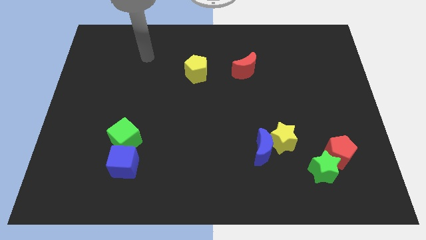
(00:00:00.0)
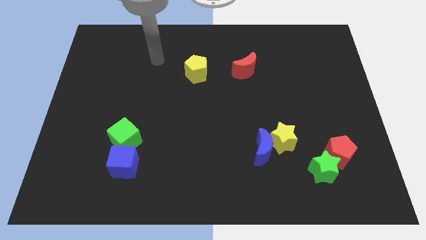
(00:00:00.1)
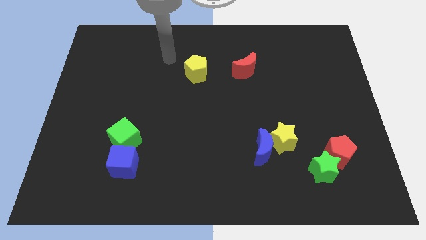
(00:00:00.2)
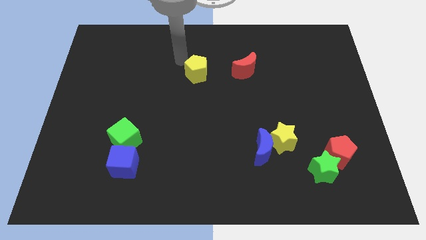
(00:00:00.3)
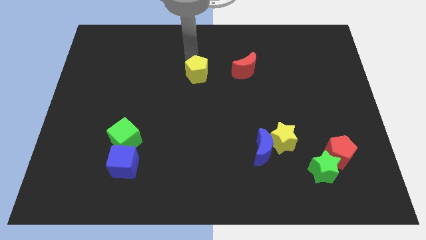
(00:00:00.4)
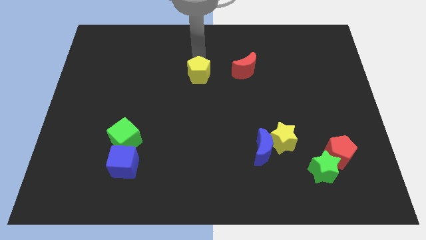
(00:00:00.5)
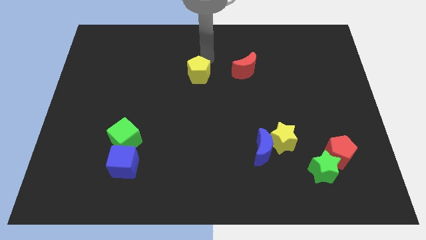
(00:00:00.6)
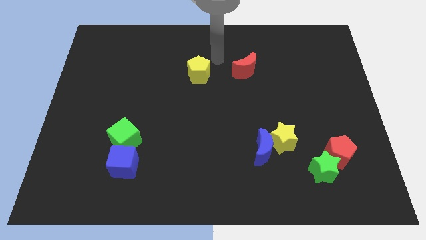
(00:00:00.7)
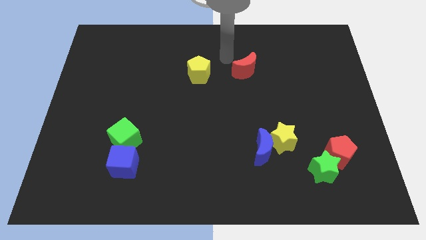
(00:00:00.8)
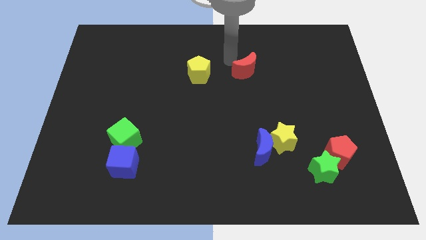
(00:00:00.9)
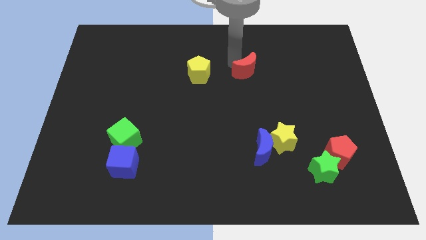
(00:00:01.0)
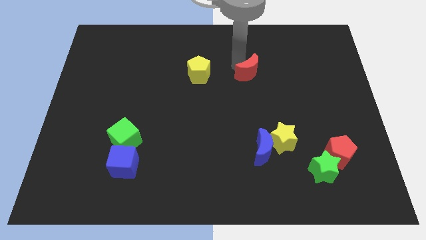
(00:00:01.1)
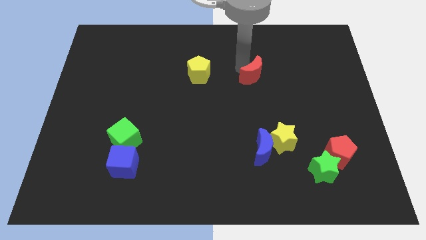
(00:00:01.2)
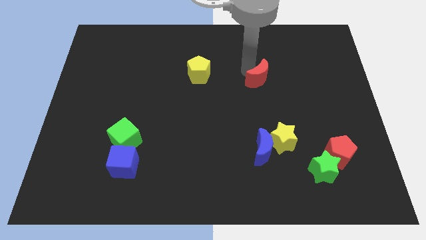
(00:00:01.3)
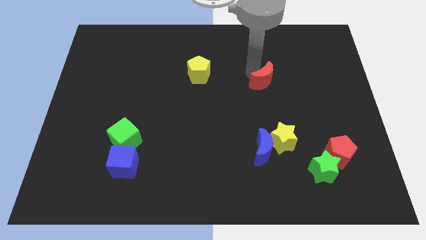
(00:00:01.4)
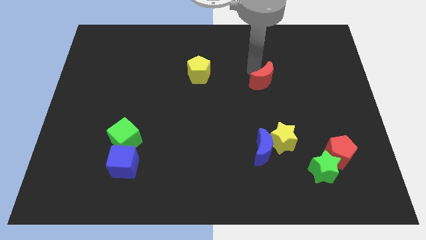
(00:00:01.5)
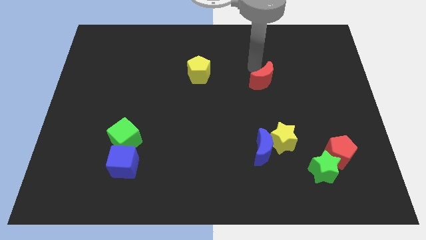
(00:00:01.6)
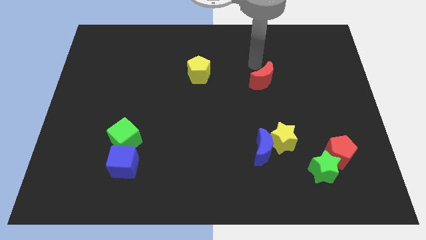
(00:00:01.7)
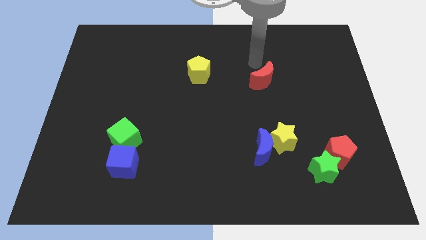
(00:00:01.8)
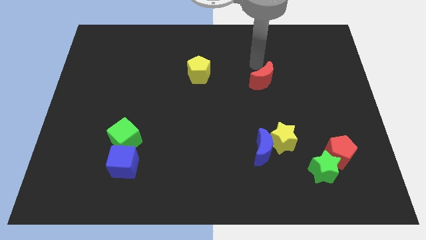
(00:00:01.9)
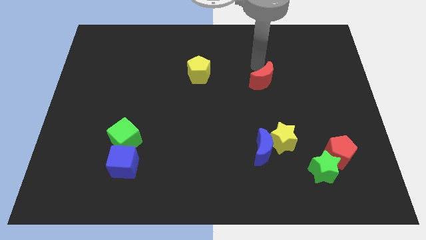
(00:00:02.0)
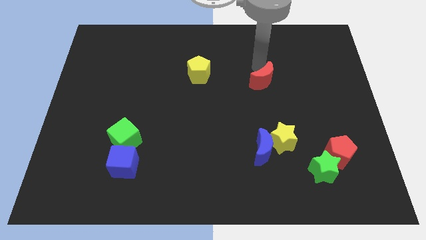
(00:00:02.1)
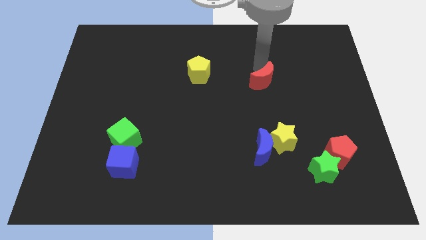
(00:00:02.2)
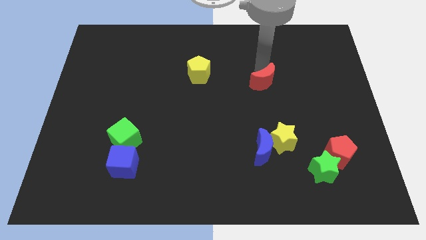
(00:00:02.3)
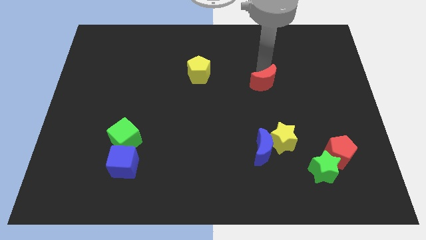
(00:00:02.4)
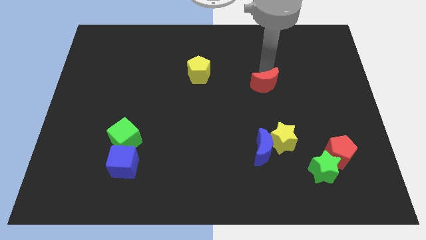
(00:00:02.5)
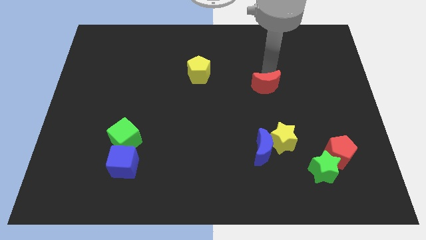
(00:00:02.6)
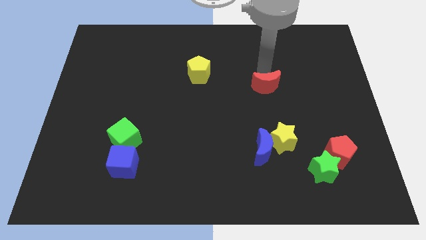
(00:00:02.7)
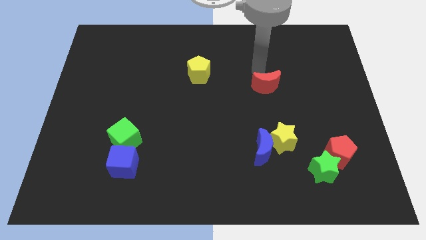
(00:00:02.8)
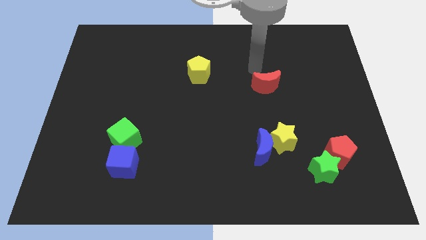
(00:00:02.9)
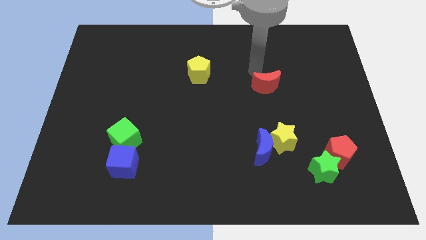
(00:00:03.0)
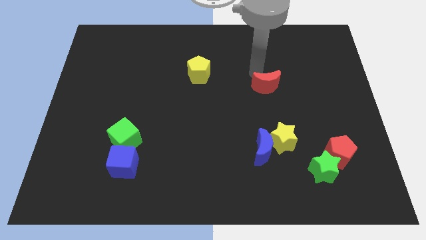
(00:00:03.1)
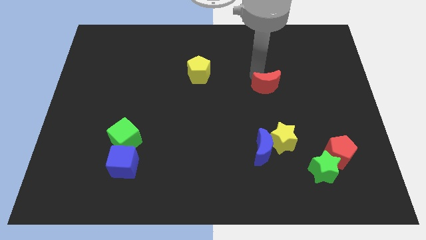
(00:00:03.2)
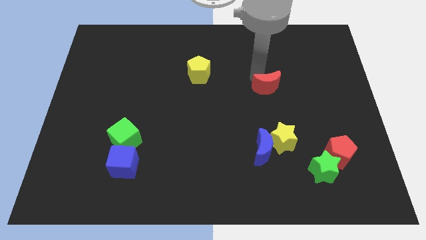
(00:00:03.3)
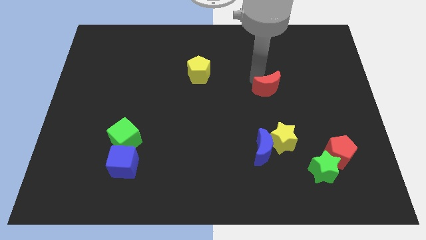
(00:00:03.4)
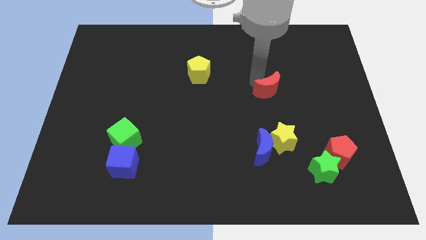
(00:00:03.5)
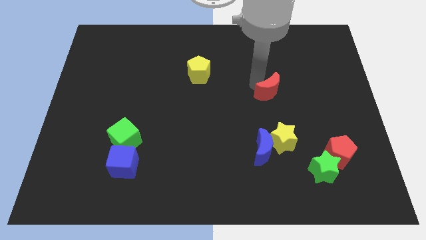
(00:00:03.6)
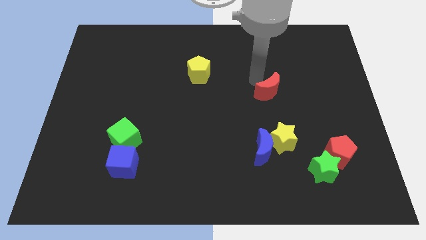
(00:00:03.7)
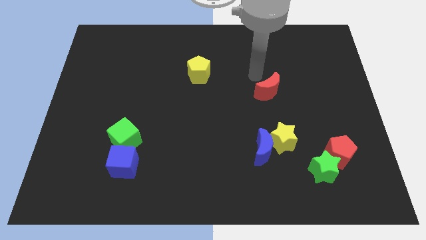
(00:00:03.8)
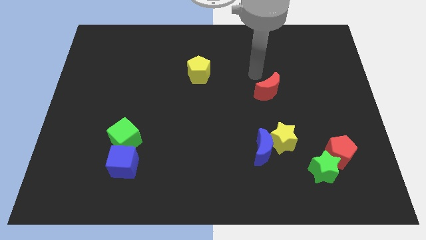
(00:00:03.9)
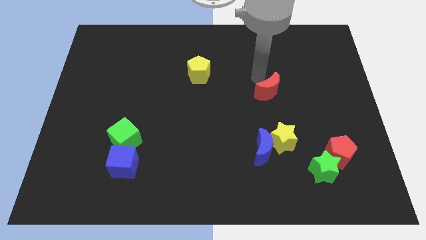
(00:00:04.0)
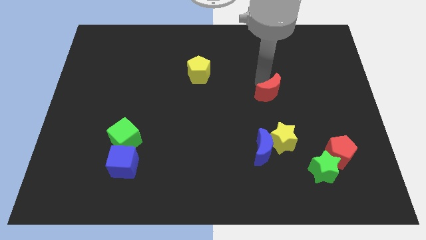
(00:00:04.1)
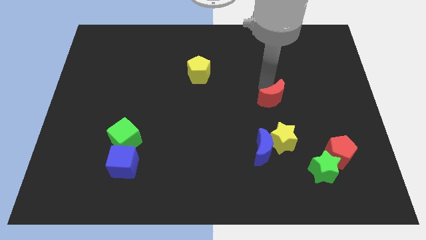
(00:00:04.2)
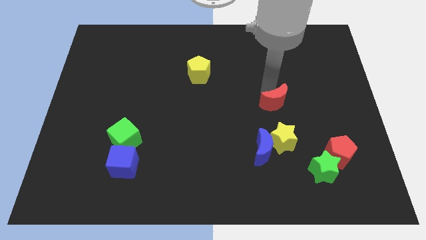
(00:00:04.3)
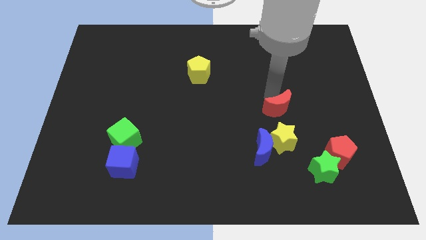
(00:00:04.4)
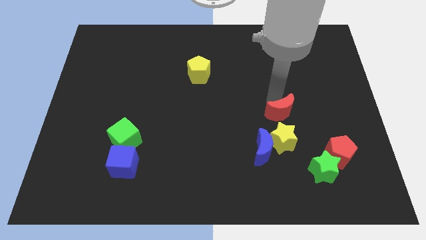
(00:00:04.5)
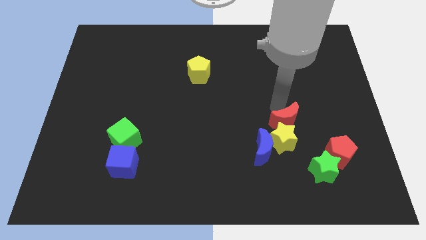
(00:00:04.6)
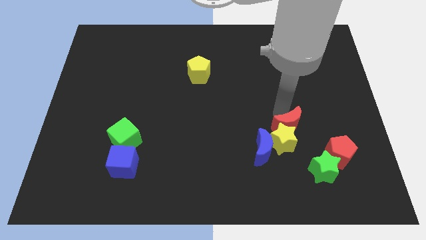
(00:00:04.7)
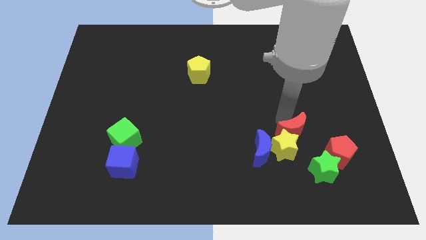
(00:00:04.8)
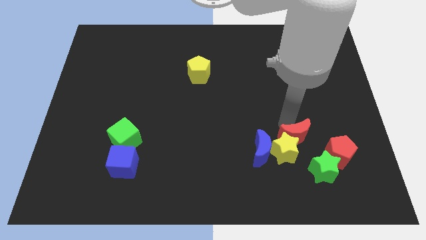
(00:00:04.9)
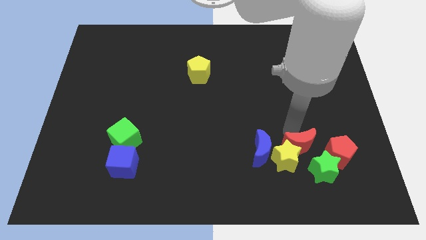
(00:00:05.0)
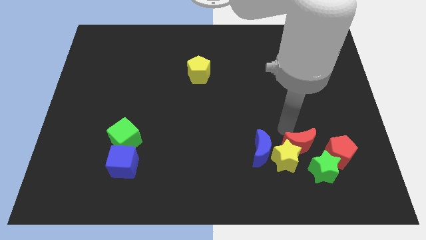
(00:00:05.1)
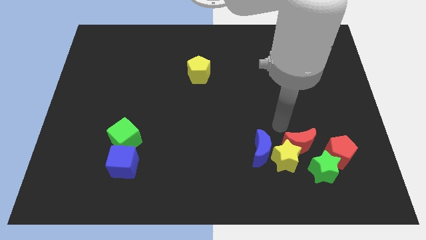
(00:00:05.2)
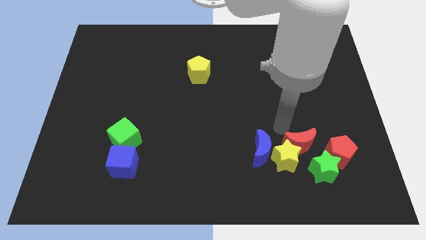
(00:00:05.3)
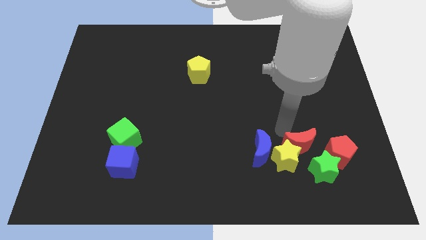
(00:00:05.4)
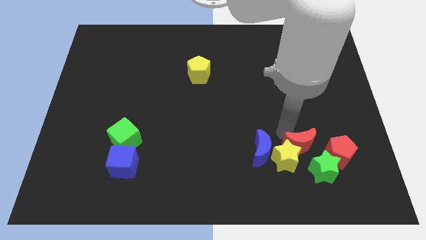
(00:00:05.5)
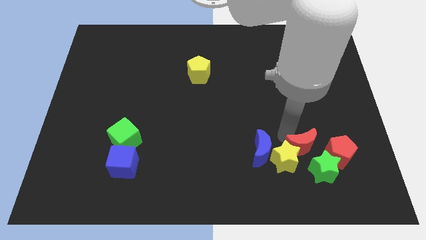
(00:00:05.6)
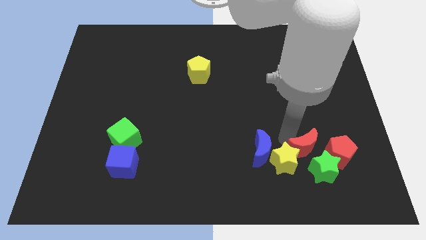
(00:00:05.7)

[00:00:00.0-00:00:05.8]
move the red moon towards the green star

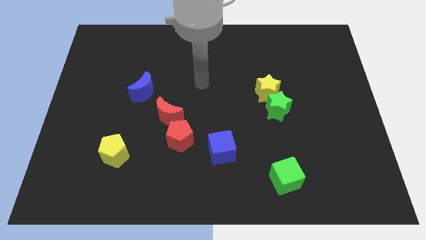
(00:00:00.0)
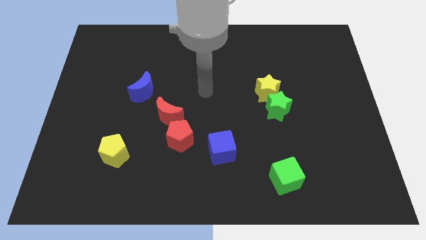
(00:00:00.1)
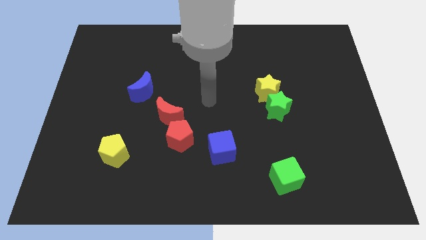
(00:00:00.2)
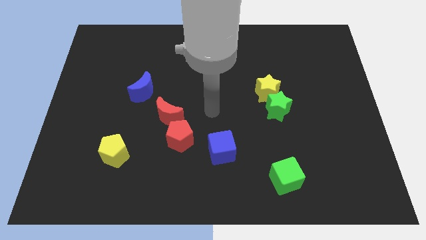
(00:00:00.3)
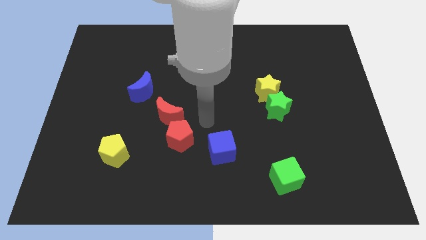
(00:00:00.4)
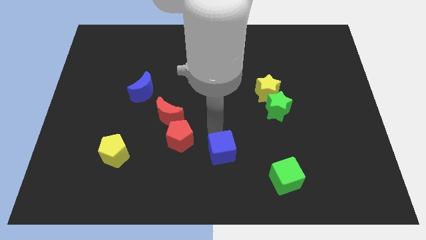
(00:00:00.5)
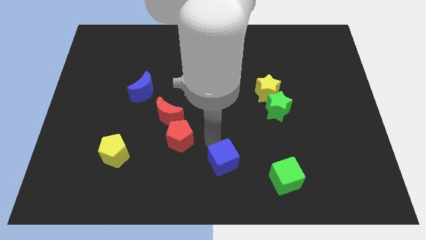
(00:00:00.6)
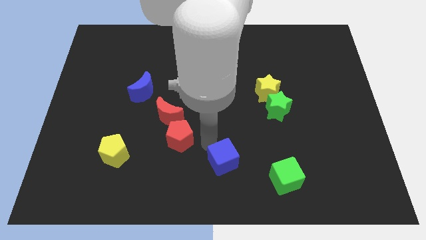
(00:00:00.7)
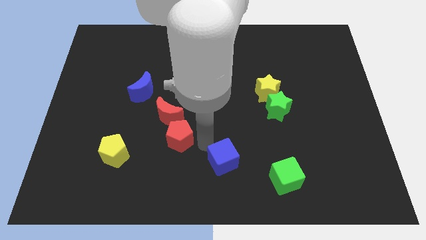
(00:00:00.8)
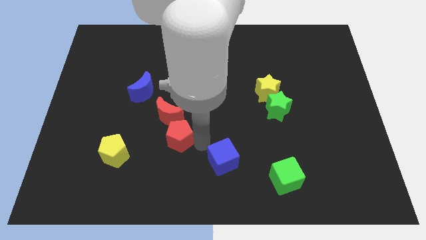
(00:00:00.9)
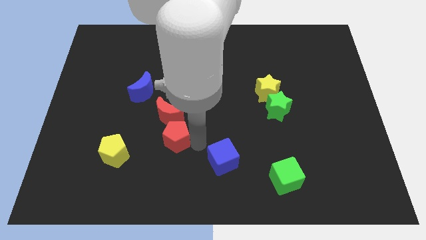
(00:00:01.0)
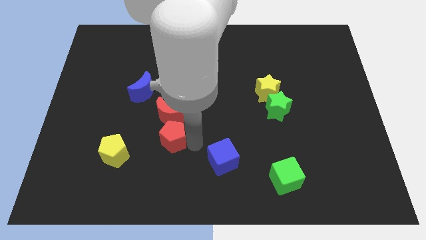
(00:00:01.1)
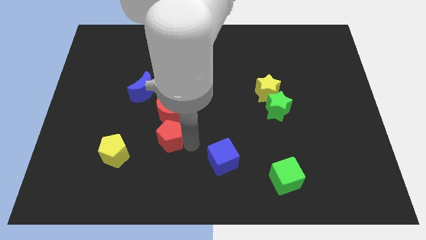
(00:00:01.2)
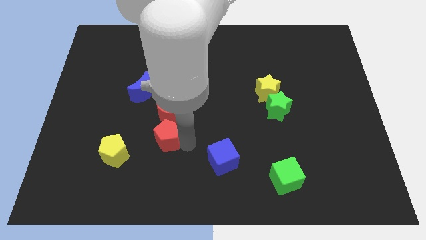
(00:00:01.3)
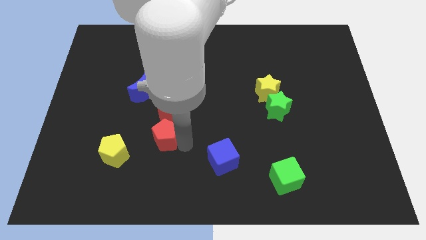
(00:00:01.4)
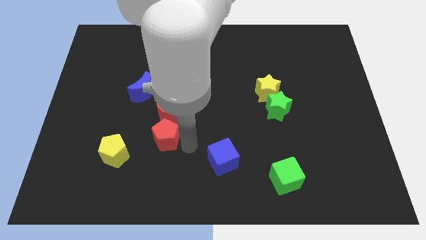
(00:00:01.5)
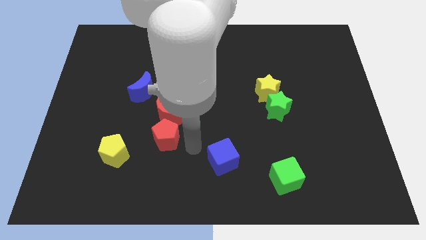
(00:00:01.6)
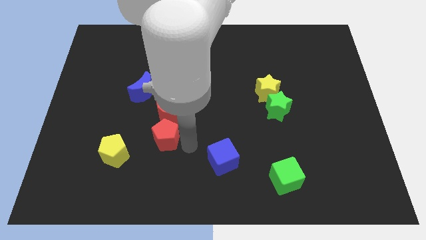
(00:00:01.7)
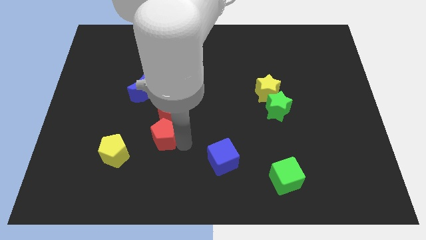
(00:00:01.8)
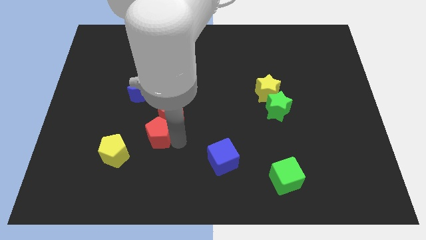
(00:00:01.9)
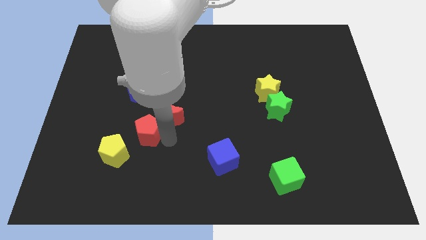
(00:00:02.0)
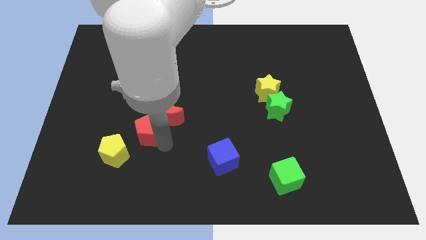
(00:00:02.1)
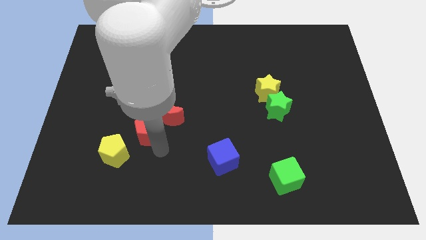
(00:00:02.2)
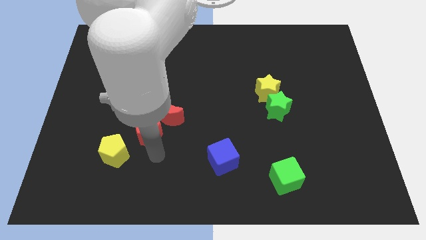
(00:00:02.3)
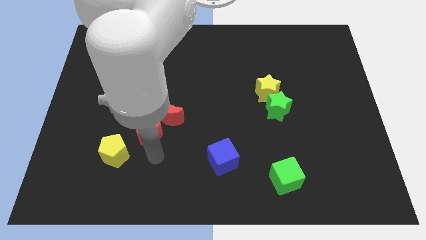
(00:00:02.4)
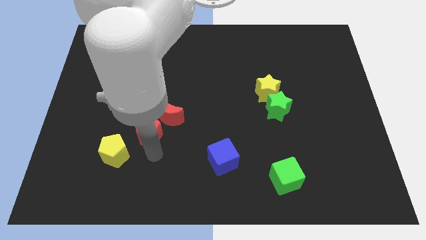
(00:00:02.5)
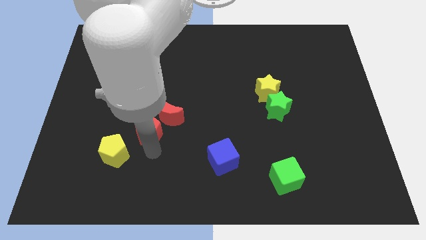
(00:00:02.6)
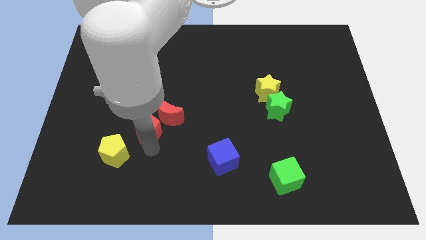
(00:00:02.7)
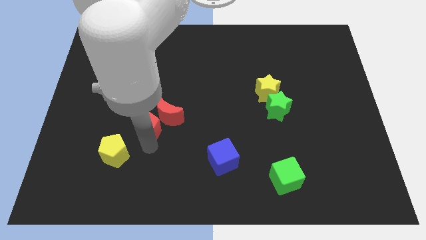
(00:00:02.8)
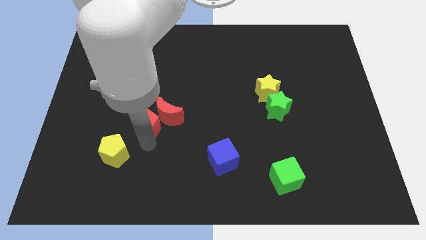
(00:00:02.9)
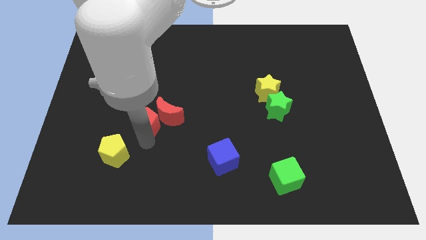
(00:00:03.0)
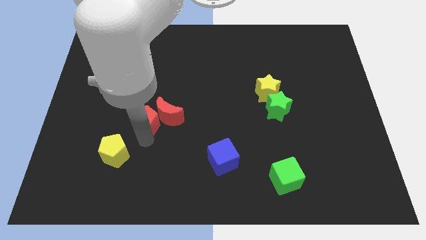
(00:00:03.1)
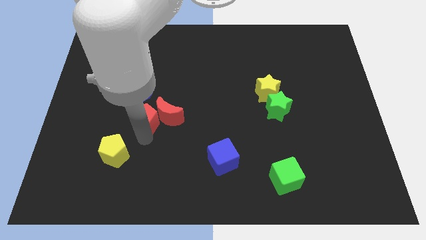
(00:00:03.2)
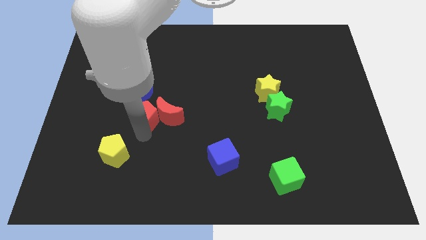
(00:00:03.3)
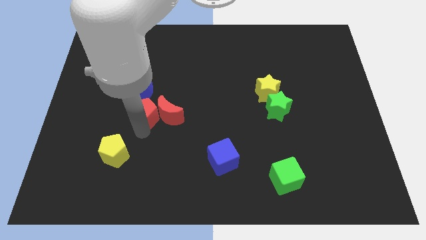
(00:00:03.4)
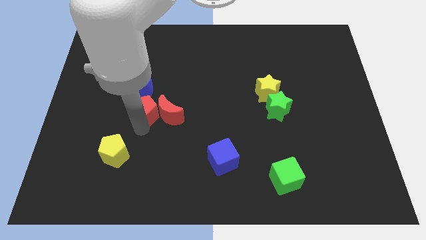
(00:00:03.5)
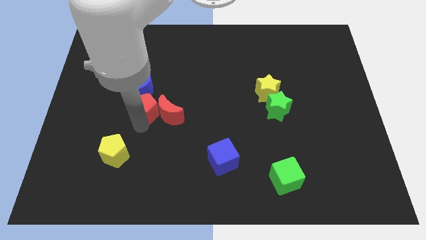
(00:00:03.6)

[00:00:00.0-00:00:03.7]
push the red pentagon to the blue moon
